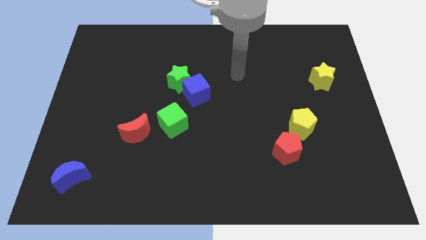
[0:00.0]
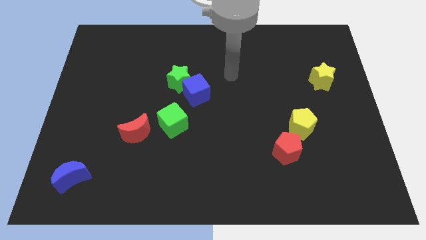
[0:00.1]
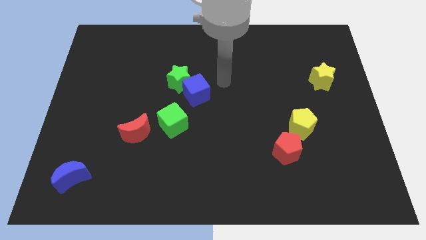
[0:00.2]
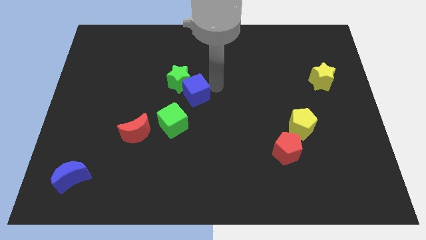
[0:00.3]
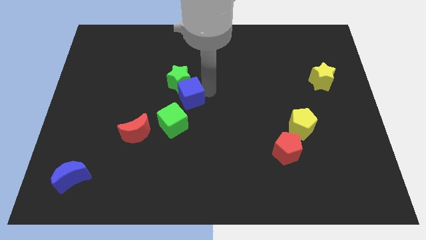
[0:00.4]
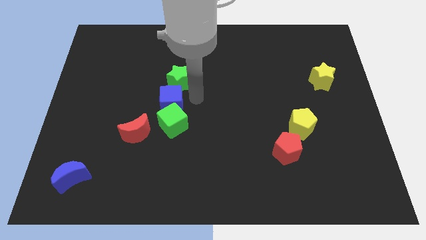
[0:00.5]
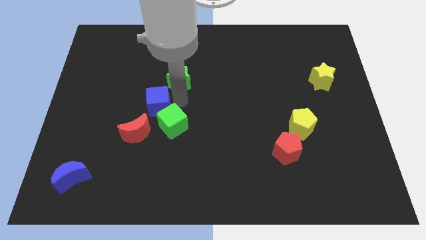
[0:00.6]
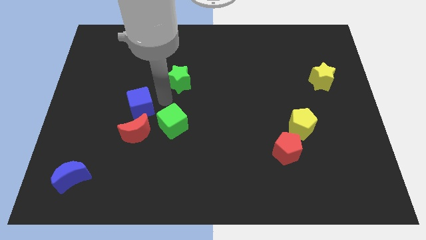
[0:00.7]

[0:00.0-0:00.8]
move the green star away from the blue cube

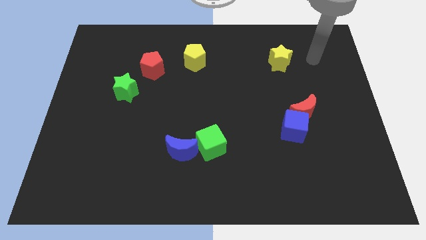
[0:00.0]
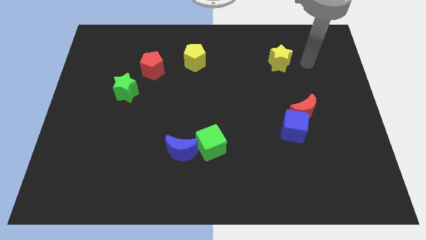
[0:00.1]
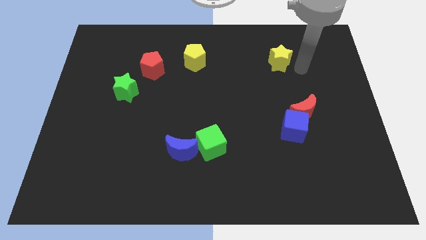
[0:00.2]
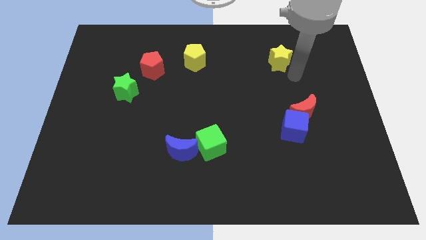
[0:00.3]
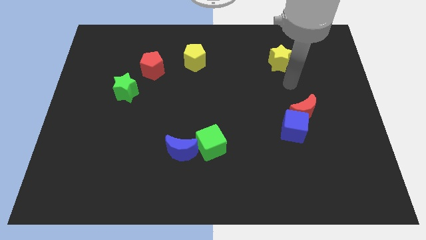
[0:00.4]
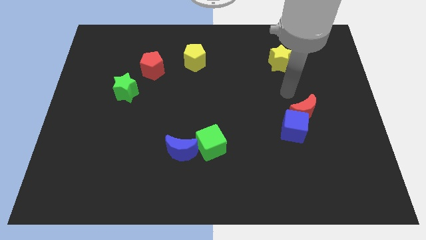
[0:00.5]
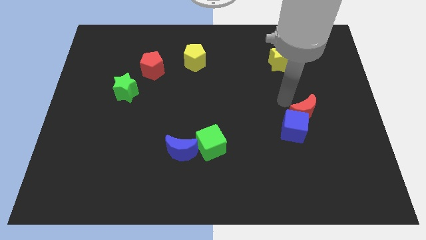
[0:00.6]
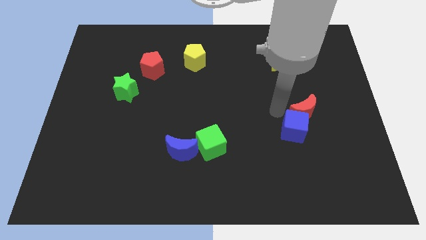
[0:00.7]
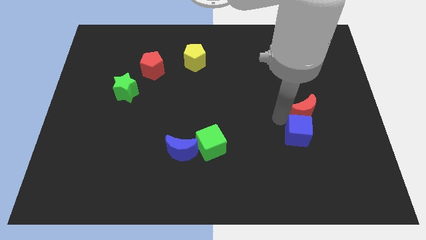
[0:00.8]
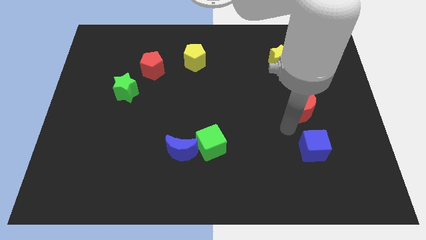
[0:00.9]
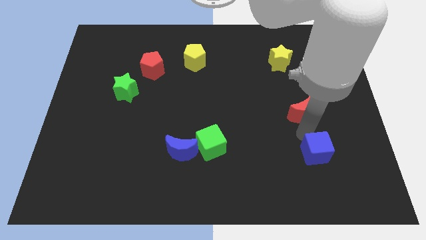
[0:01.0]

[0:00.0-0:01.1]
pull the red moon apart from the blue cube

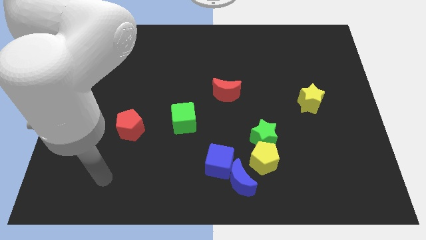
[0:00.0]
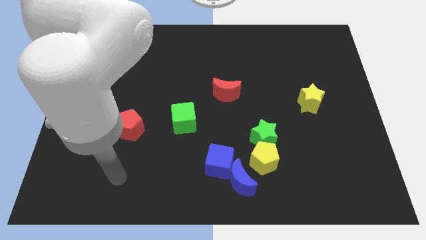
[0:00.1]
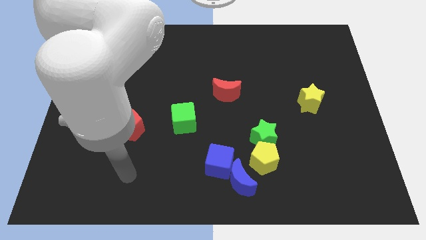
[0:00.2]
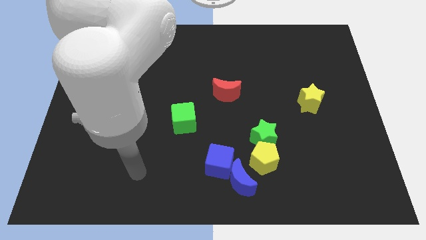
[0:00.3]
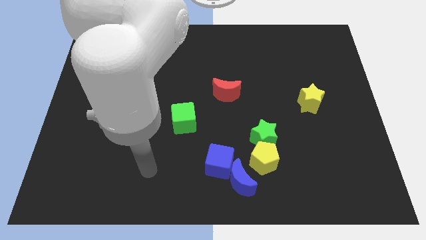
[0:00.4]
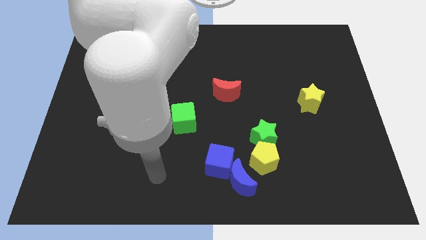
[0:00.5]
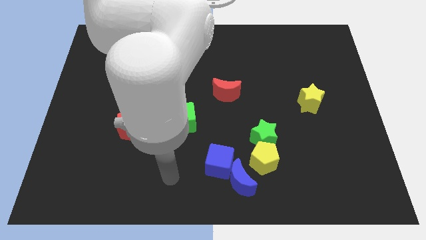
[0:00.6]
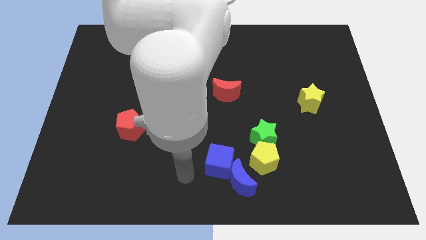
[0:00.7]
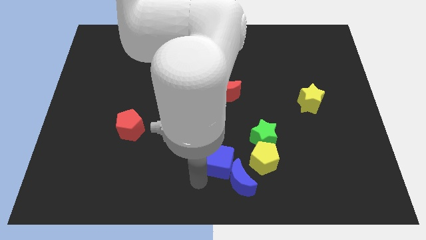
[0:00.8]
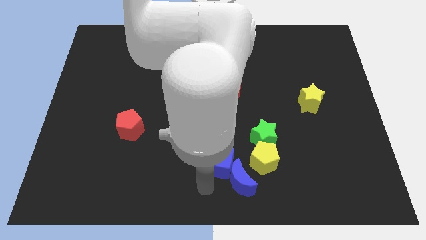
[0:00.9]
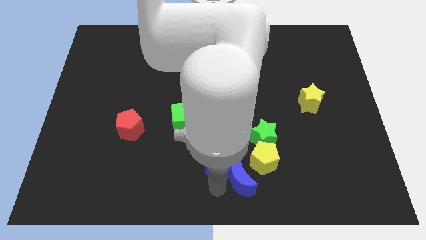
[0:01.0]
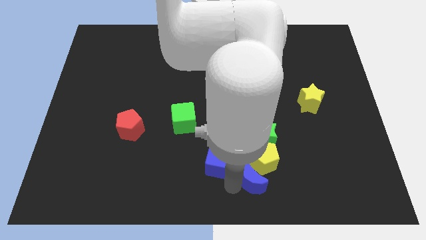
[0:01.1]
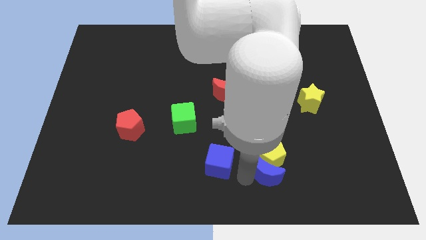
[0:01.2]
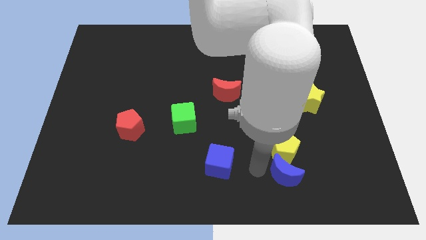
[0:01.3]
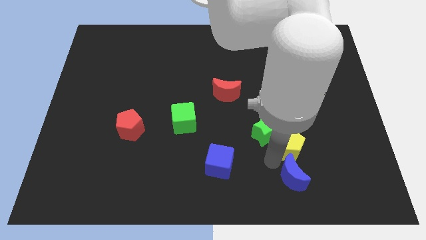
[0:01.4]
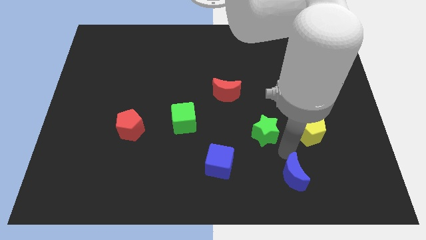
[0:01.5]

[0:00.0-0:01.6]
separate the green star from the yellow pentagon

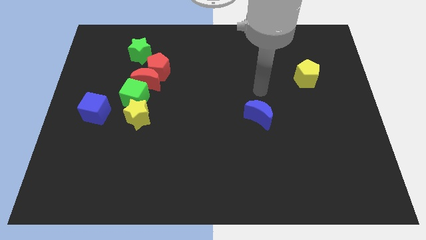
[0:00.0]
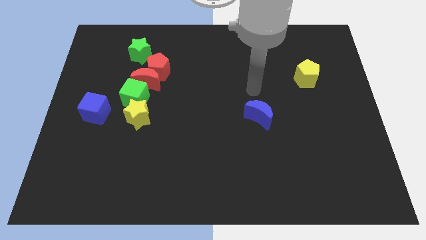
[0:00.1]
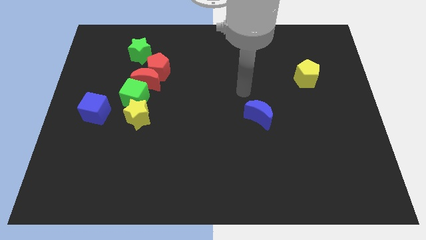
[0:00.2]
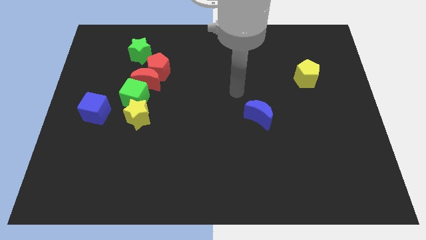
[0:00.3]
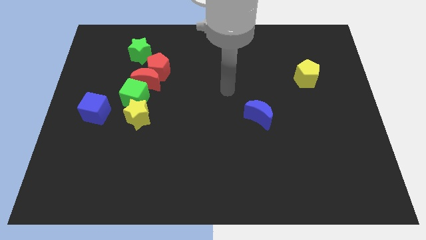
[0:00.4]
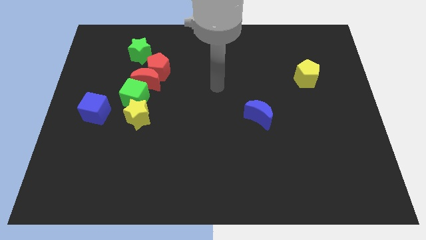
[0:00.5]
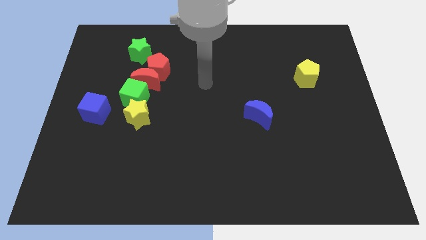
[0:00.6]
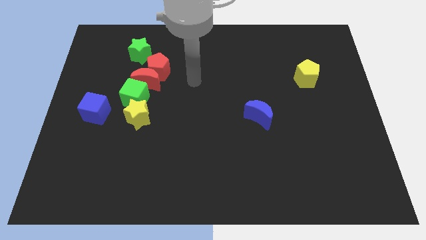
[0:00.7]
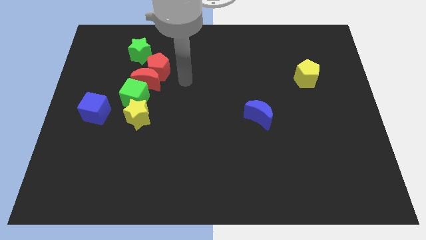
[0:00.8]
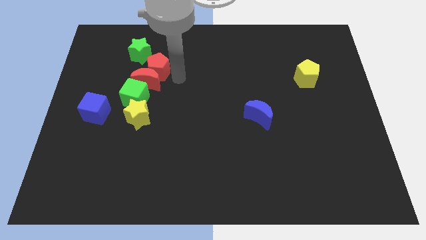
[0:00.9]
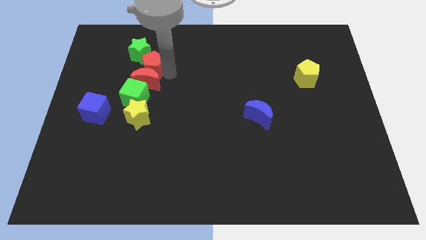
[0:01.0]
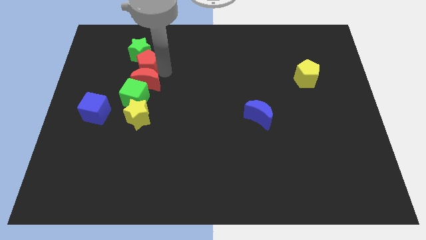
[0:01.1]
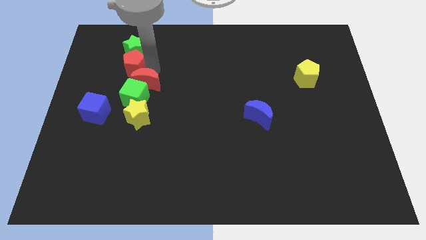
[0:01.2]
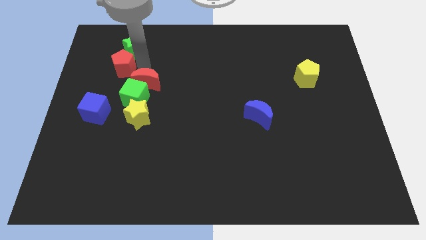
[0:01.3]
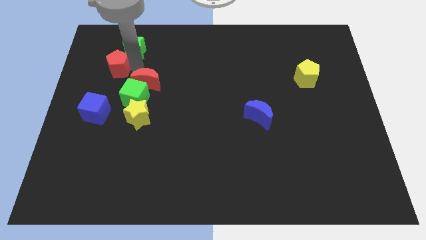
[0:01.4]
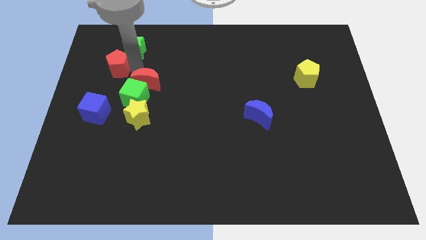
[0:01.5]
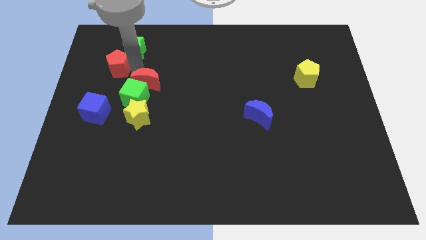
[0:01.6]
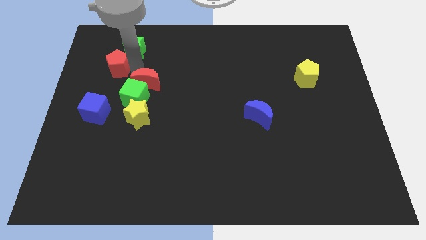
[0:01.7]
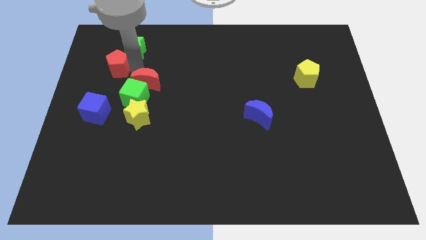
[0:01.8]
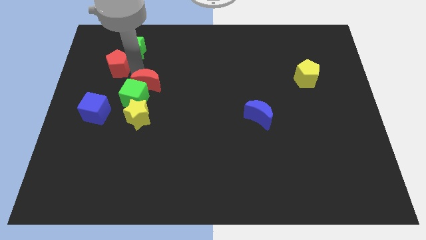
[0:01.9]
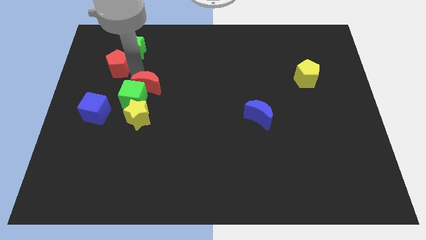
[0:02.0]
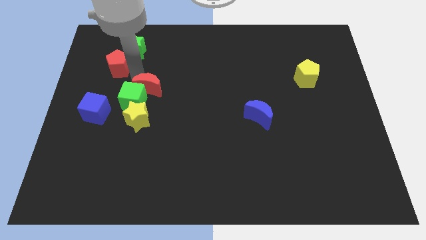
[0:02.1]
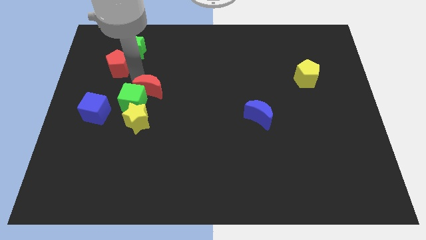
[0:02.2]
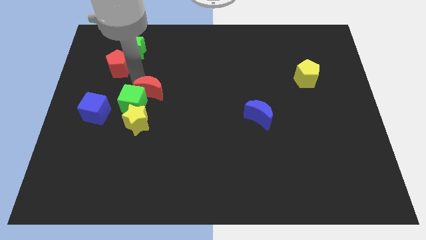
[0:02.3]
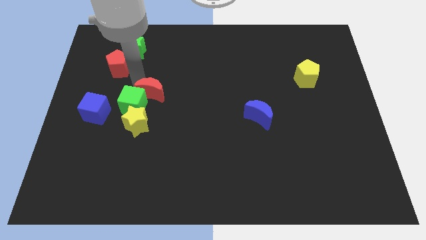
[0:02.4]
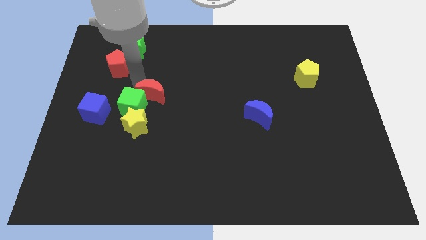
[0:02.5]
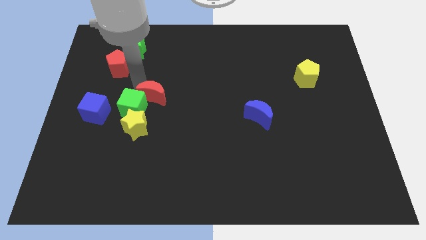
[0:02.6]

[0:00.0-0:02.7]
separate the red moon from the clump

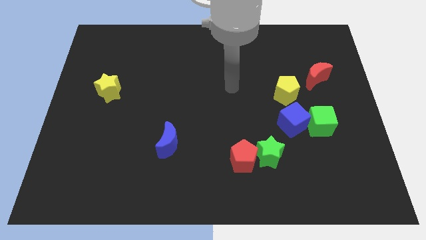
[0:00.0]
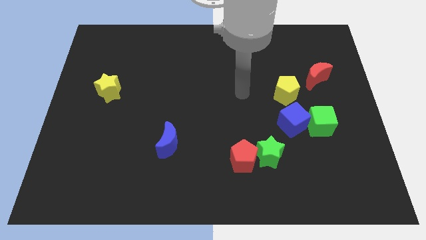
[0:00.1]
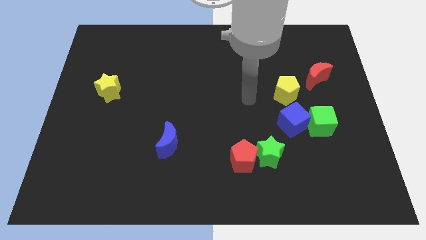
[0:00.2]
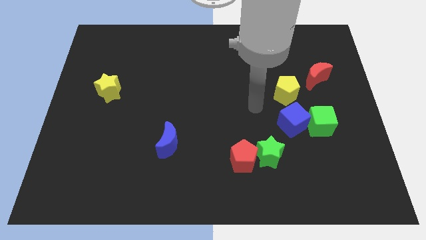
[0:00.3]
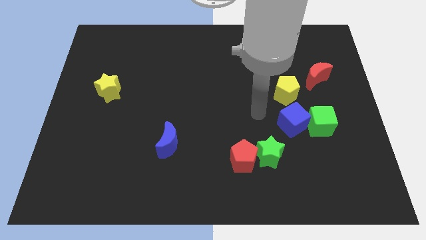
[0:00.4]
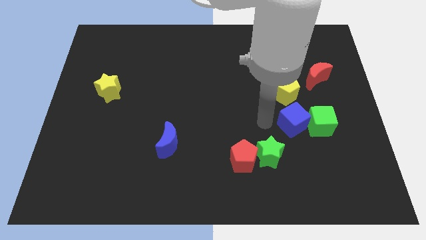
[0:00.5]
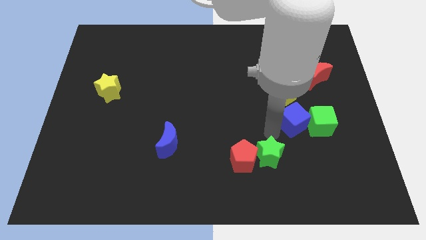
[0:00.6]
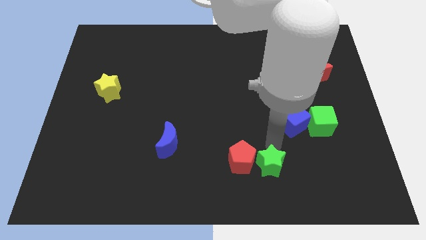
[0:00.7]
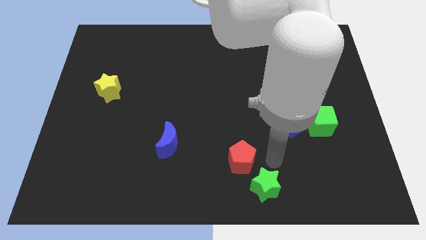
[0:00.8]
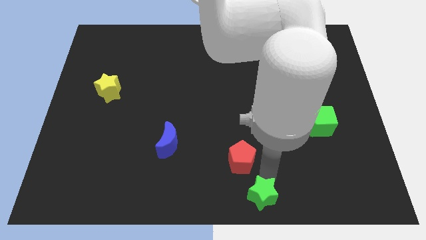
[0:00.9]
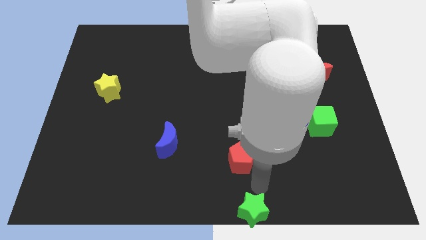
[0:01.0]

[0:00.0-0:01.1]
pull the red pentagon apart from the green star

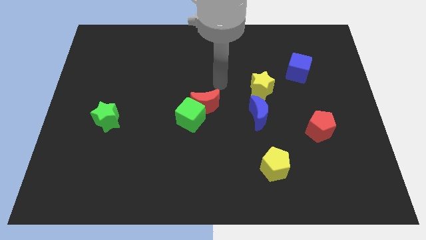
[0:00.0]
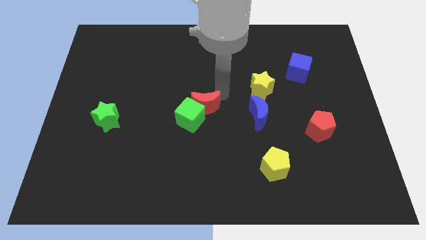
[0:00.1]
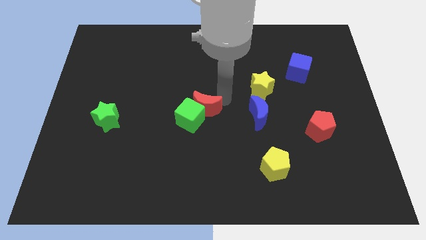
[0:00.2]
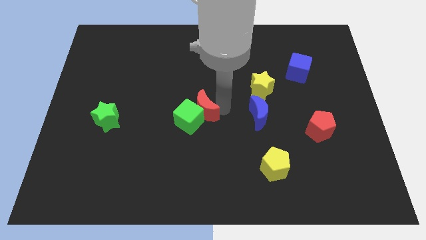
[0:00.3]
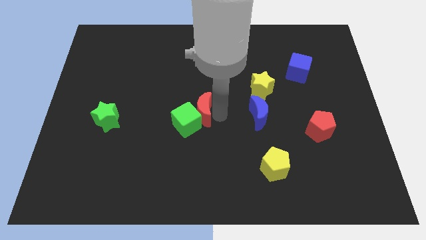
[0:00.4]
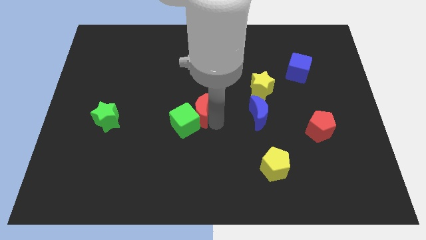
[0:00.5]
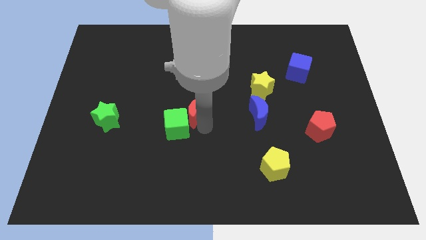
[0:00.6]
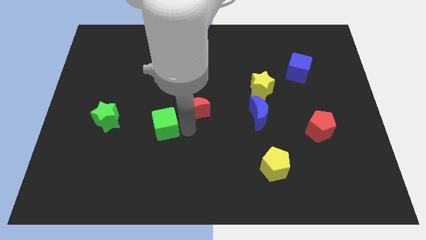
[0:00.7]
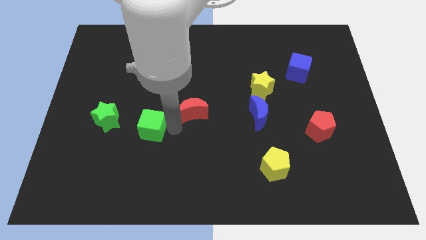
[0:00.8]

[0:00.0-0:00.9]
pull the red moon apart from the green cube

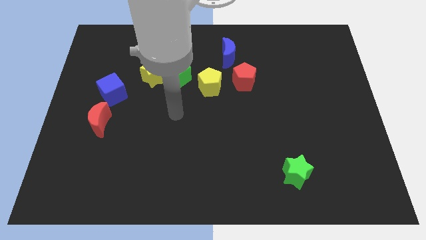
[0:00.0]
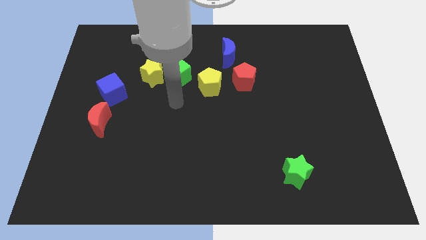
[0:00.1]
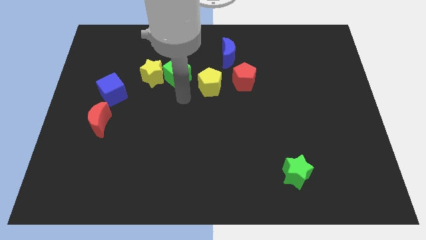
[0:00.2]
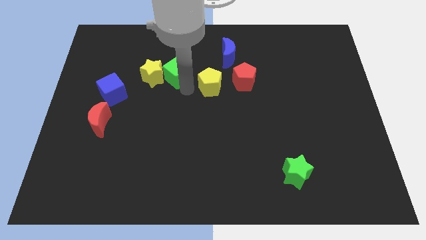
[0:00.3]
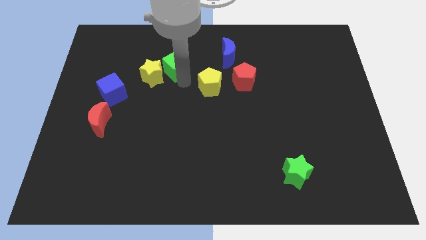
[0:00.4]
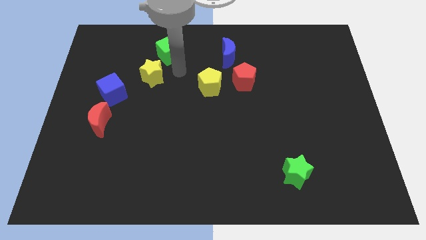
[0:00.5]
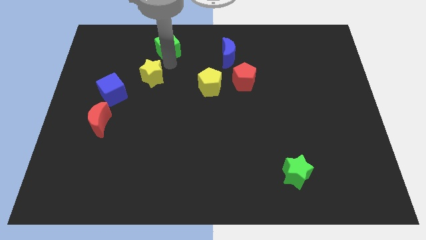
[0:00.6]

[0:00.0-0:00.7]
move the yellow star away from the green cube

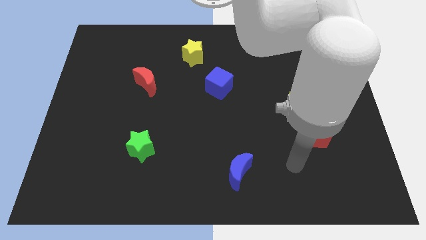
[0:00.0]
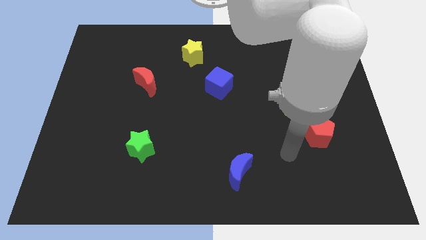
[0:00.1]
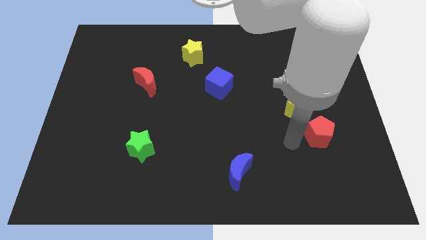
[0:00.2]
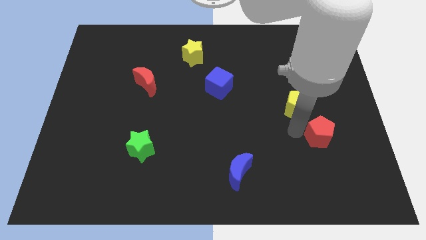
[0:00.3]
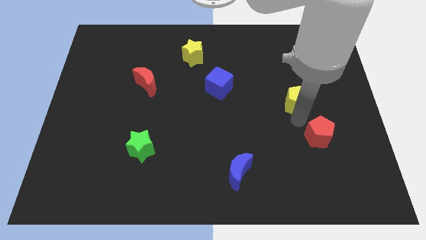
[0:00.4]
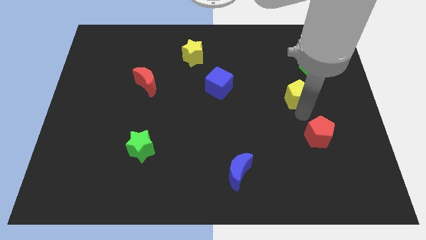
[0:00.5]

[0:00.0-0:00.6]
pull the red pentagon apart from the yellow pentagon
